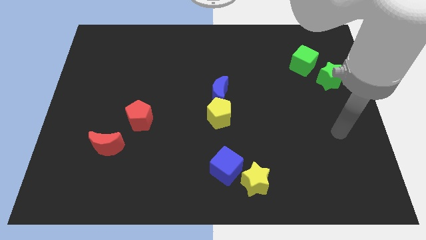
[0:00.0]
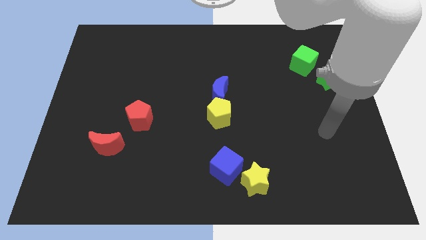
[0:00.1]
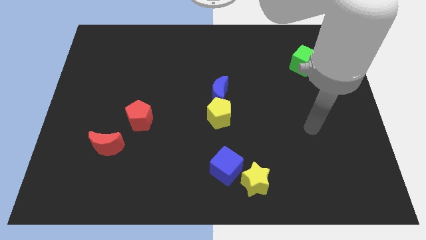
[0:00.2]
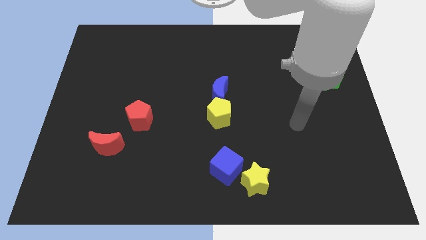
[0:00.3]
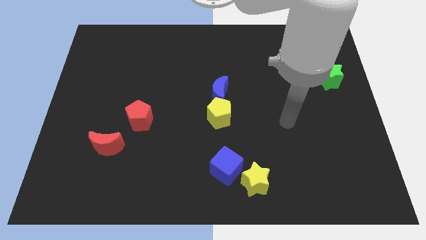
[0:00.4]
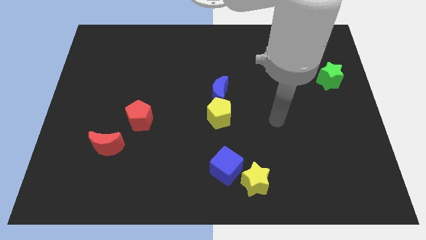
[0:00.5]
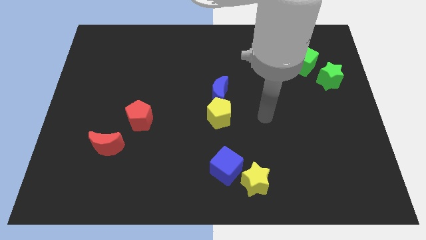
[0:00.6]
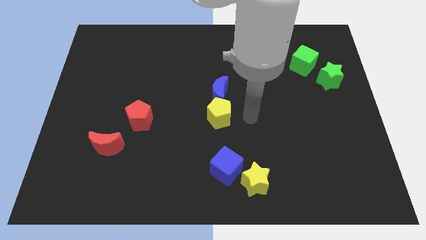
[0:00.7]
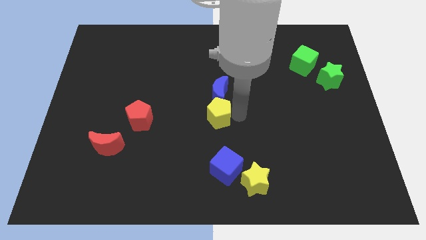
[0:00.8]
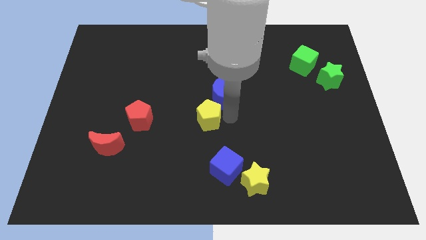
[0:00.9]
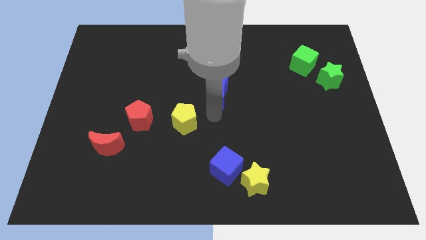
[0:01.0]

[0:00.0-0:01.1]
separate the blue moon from the yellow pentagon

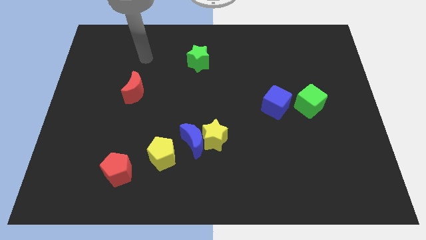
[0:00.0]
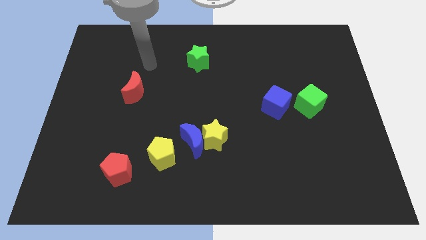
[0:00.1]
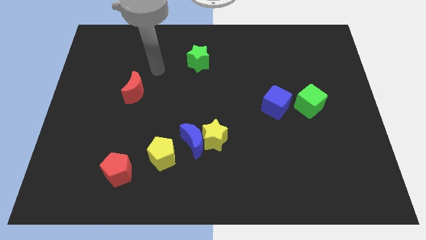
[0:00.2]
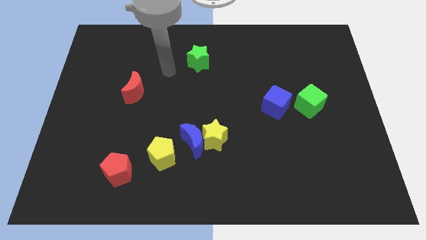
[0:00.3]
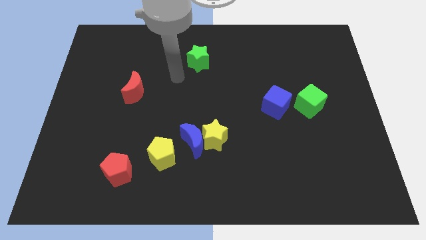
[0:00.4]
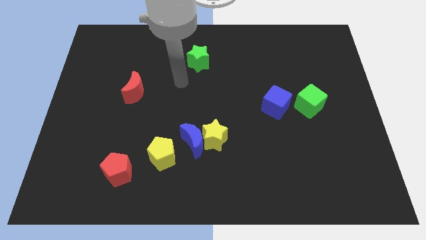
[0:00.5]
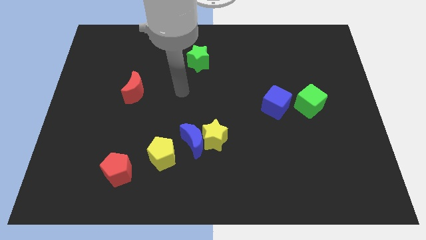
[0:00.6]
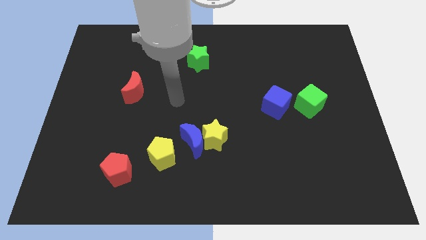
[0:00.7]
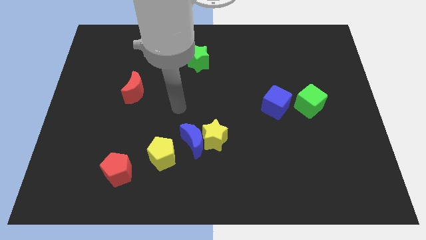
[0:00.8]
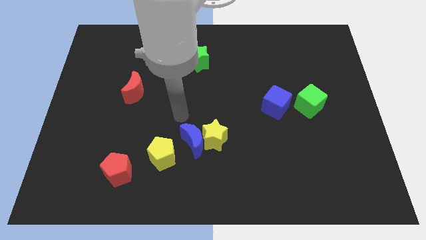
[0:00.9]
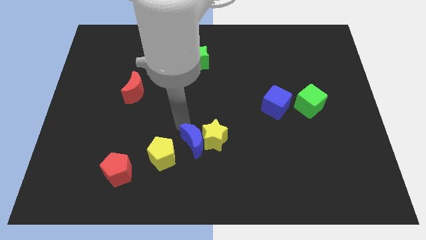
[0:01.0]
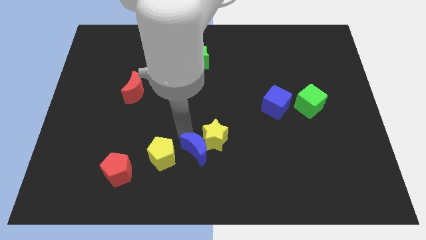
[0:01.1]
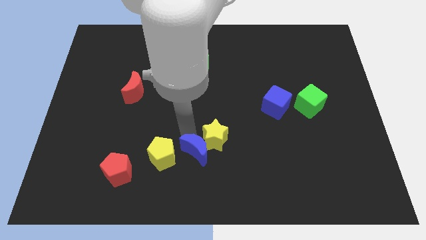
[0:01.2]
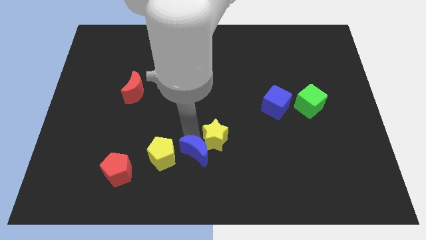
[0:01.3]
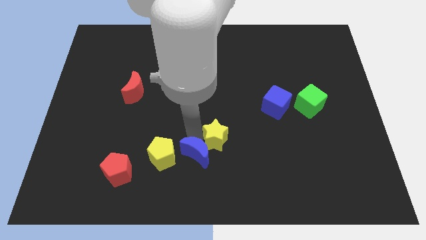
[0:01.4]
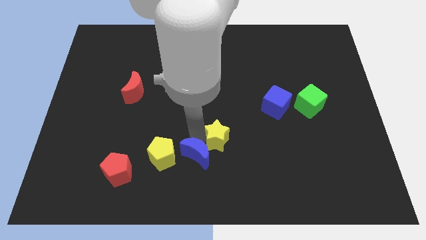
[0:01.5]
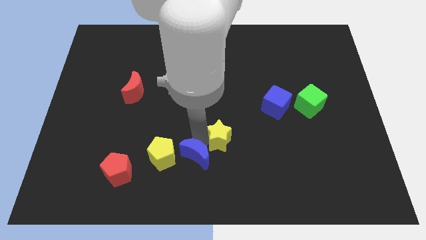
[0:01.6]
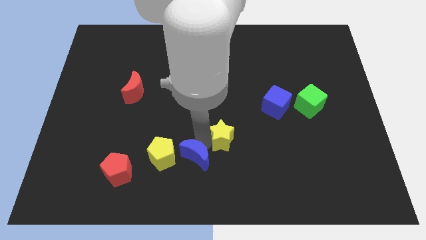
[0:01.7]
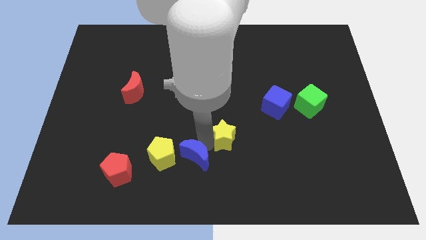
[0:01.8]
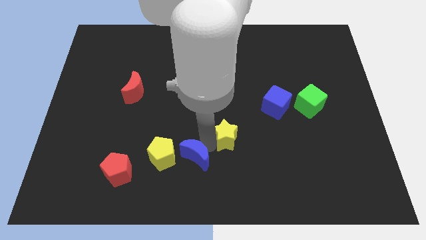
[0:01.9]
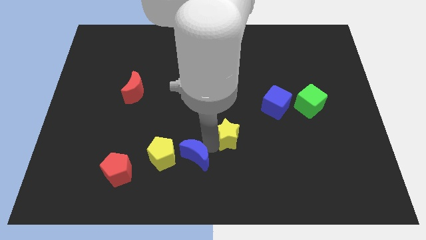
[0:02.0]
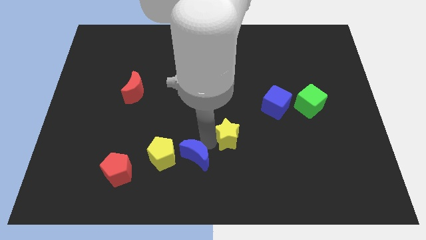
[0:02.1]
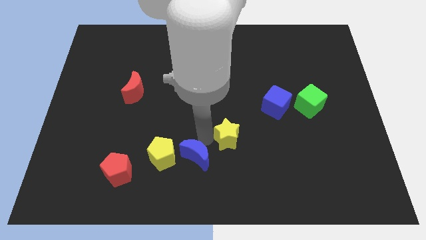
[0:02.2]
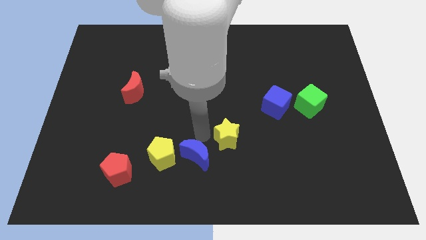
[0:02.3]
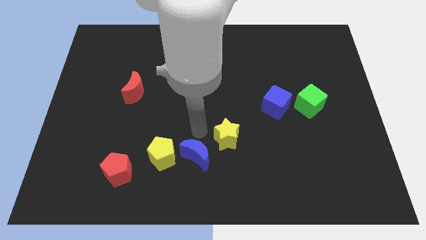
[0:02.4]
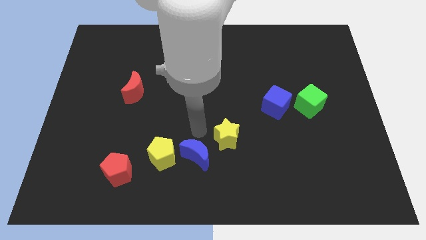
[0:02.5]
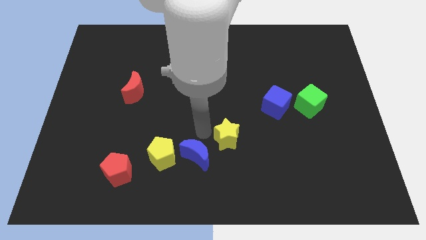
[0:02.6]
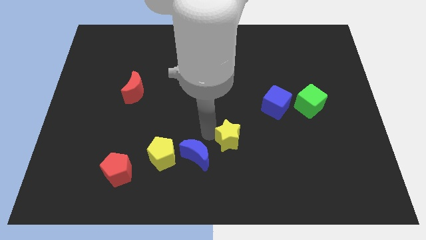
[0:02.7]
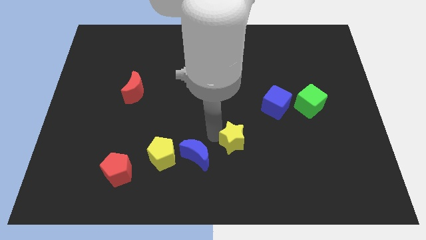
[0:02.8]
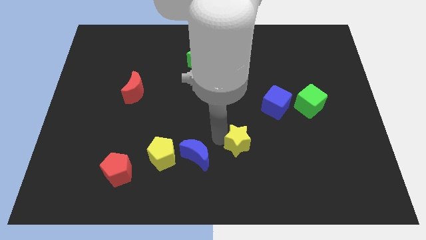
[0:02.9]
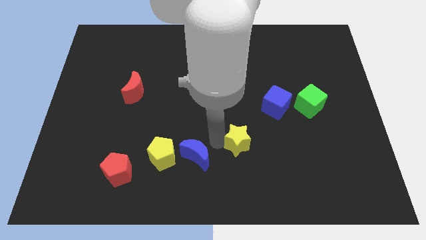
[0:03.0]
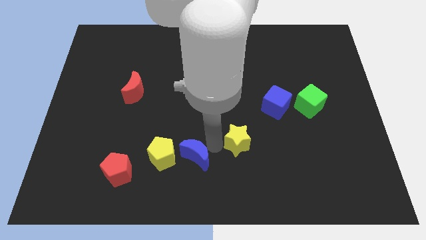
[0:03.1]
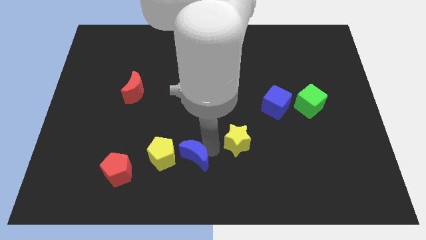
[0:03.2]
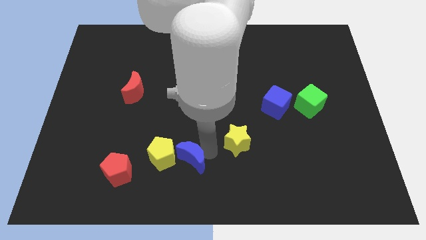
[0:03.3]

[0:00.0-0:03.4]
pull the yellow star apart from the blue moon

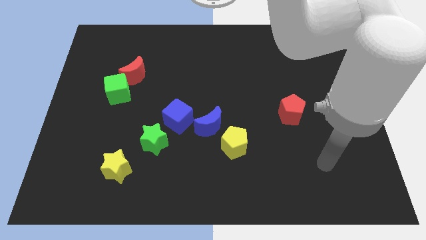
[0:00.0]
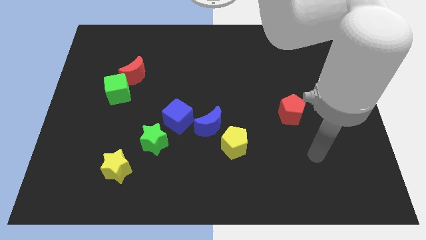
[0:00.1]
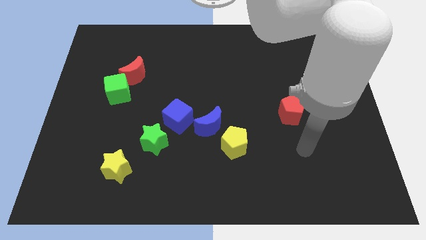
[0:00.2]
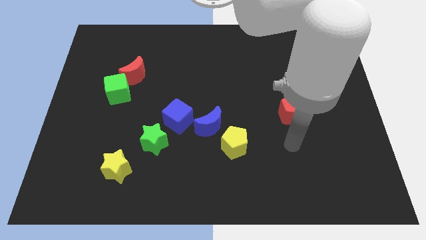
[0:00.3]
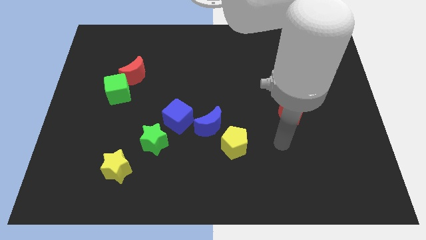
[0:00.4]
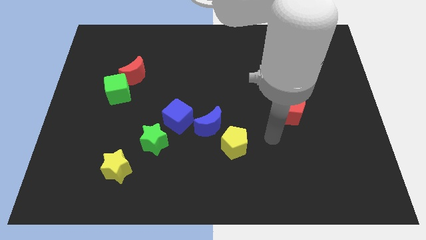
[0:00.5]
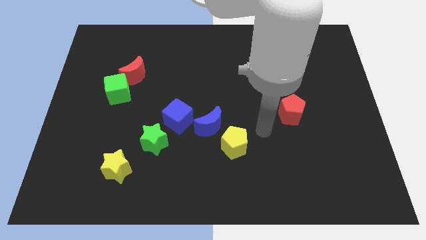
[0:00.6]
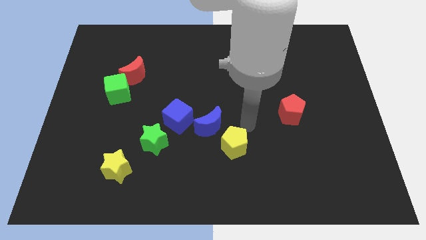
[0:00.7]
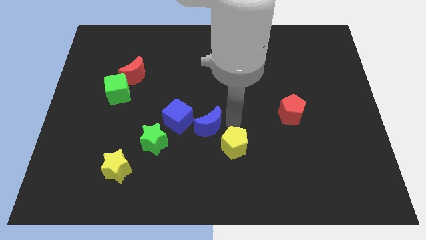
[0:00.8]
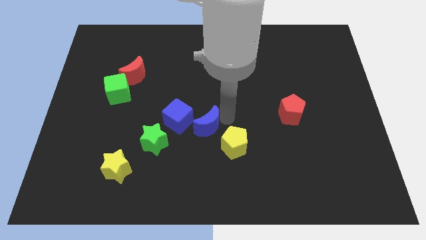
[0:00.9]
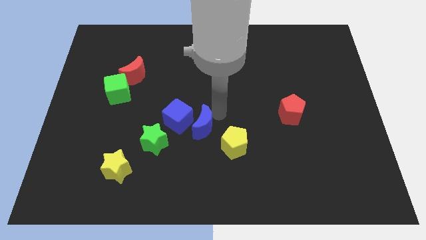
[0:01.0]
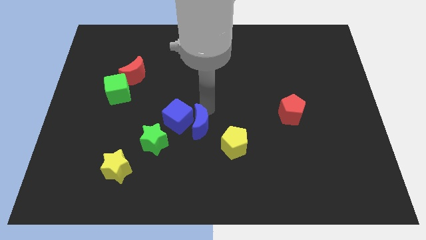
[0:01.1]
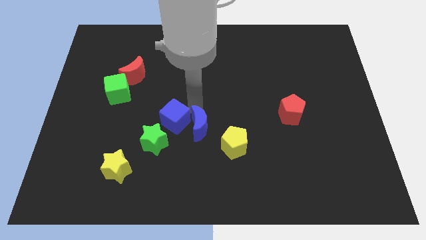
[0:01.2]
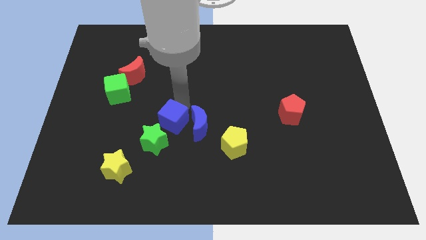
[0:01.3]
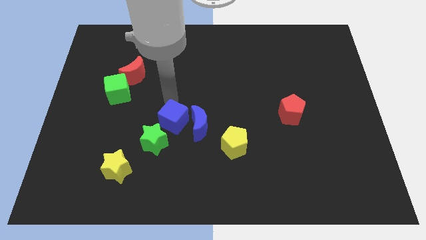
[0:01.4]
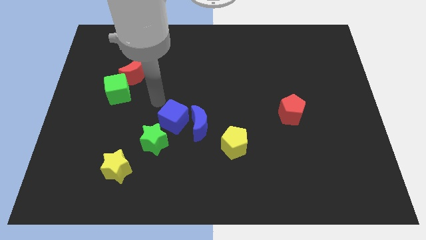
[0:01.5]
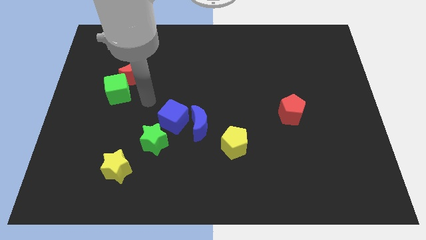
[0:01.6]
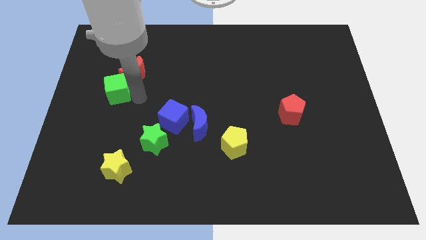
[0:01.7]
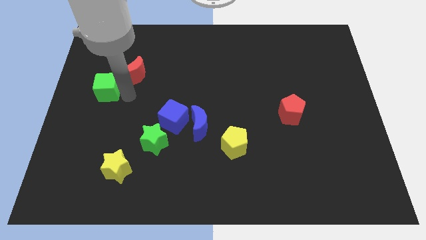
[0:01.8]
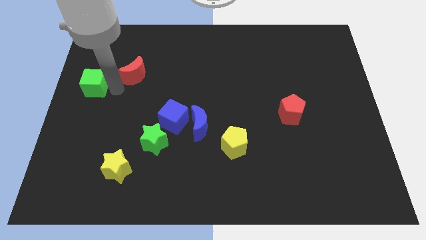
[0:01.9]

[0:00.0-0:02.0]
pull the red moon apart from the green cube

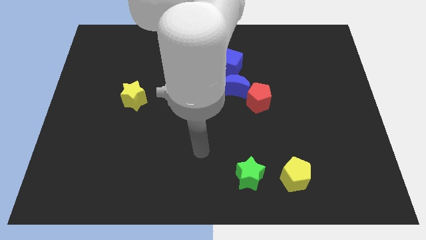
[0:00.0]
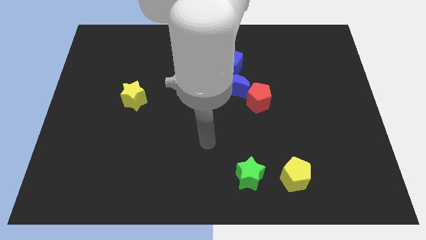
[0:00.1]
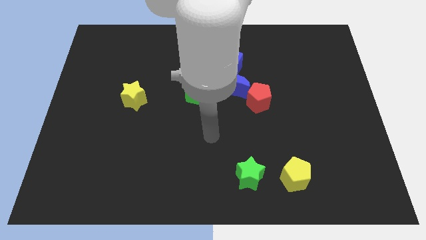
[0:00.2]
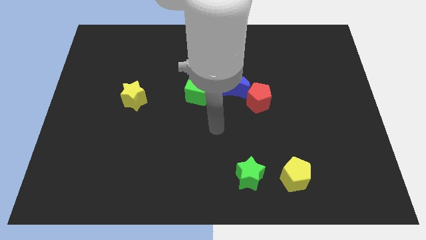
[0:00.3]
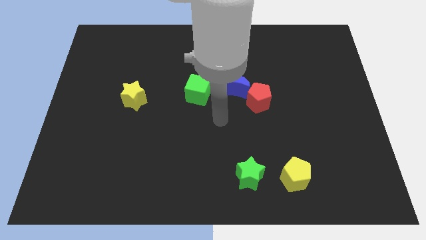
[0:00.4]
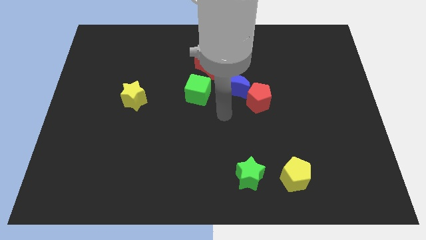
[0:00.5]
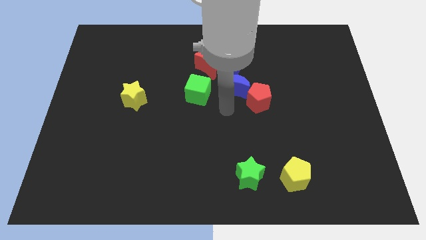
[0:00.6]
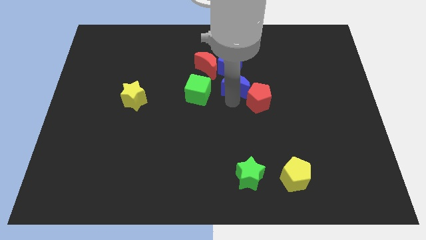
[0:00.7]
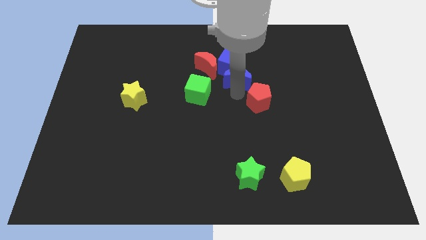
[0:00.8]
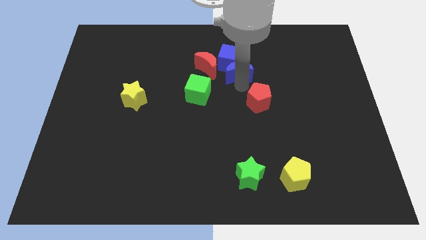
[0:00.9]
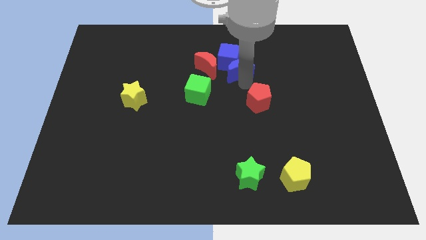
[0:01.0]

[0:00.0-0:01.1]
separate the red pentagon from the blue moon

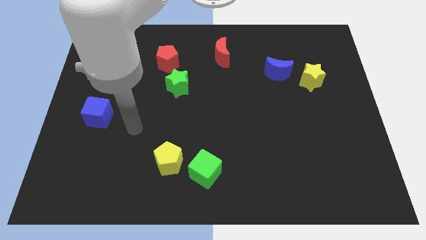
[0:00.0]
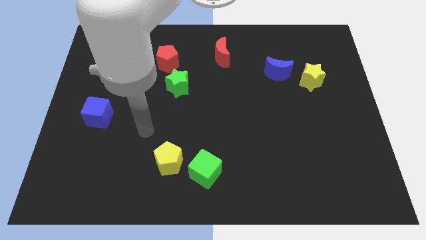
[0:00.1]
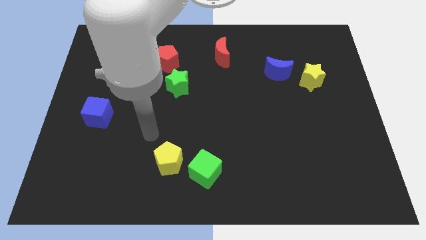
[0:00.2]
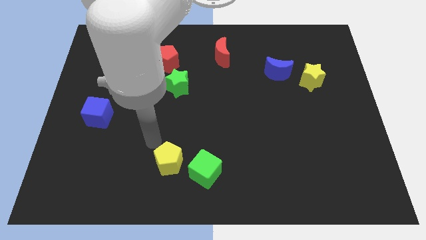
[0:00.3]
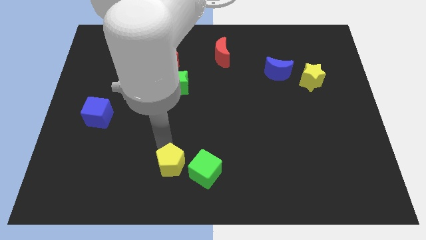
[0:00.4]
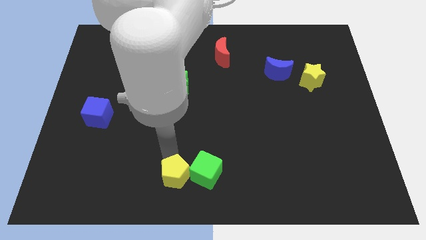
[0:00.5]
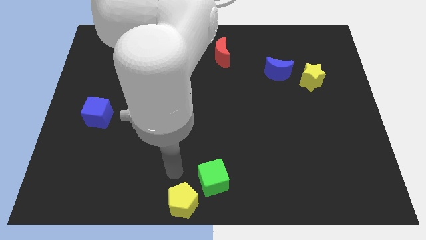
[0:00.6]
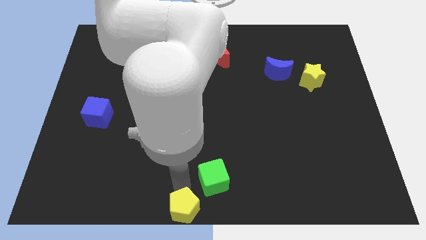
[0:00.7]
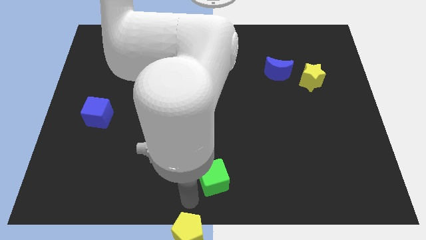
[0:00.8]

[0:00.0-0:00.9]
pull the green cube apart from the yellow pentagon

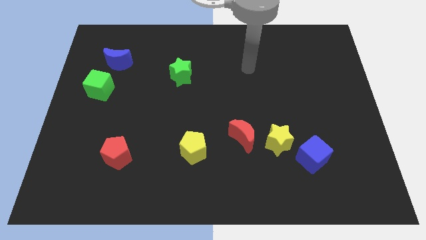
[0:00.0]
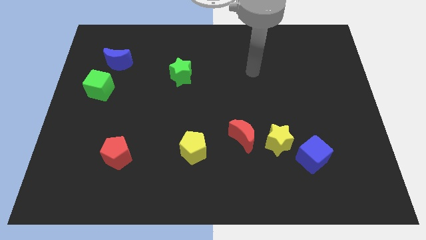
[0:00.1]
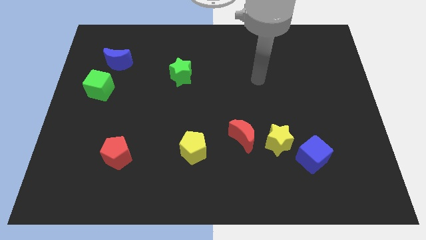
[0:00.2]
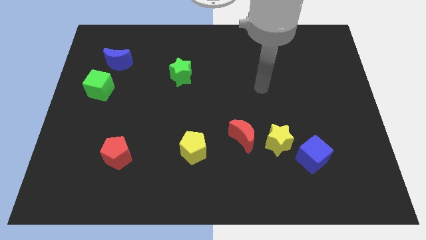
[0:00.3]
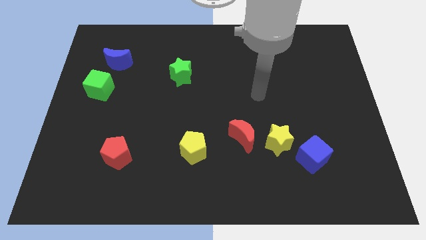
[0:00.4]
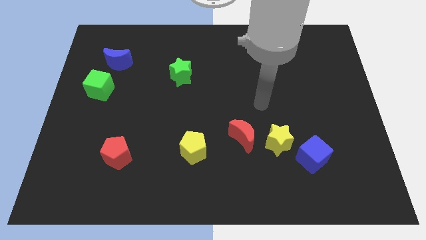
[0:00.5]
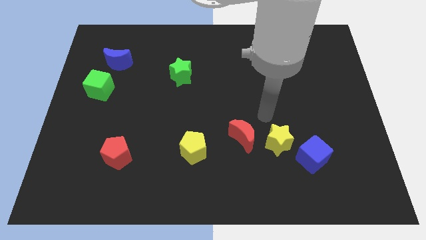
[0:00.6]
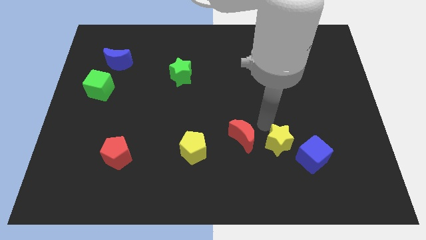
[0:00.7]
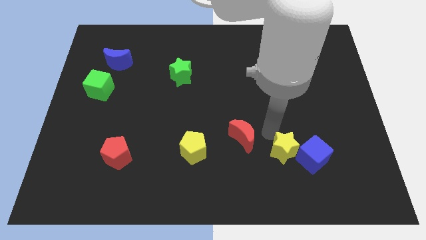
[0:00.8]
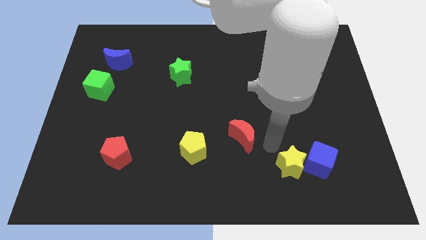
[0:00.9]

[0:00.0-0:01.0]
separate the red moon from the yellow star
